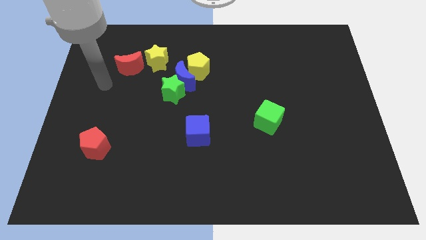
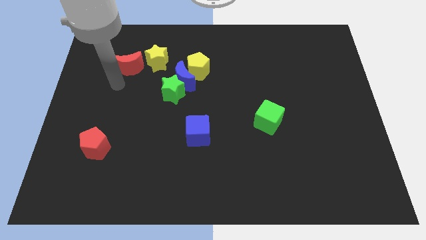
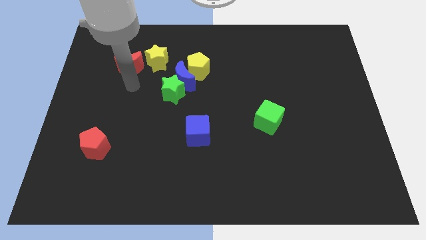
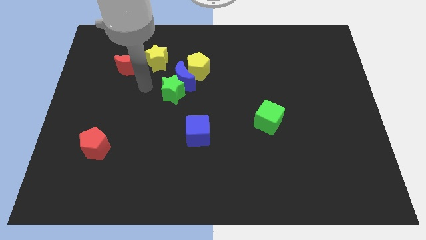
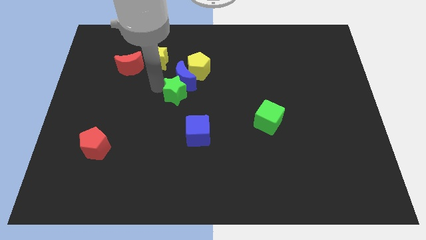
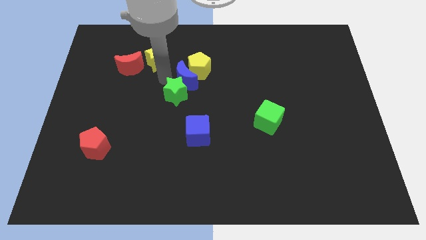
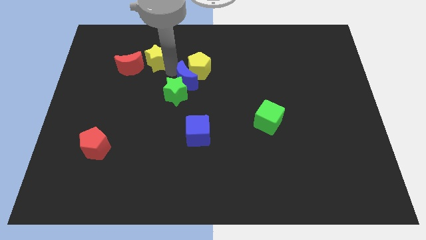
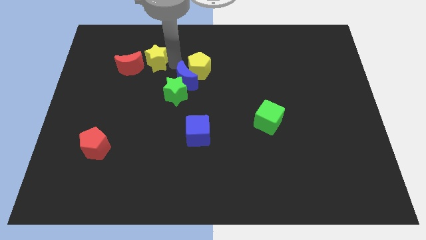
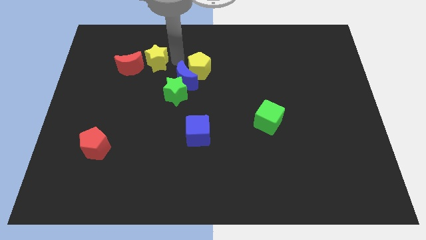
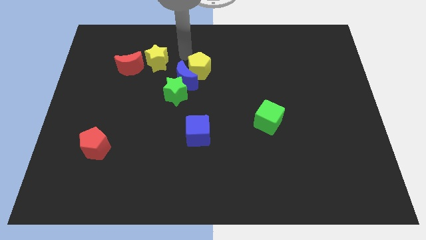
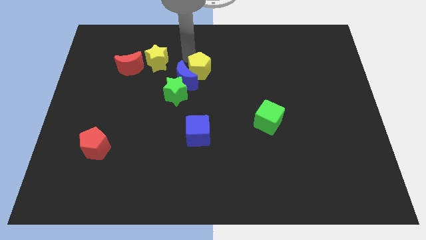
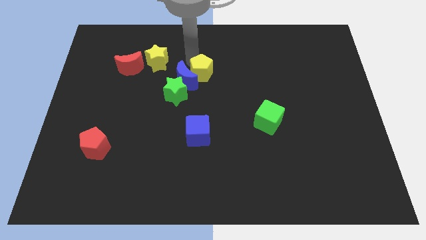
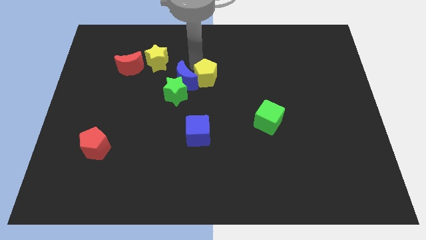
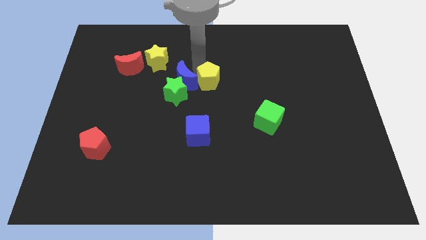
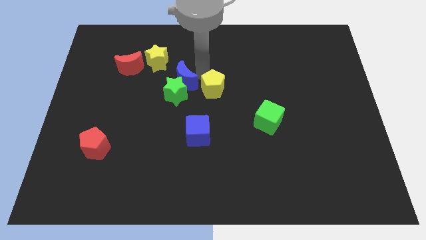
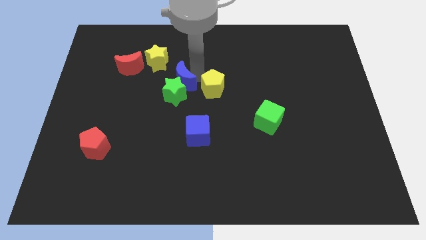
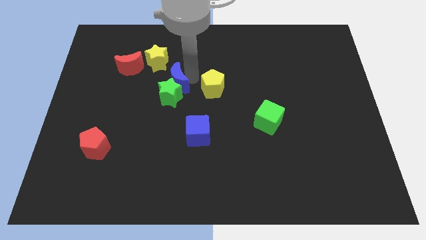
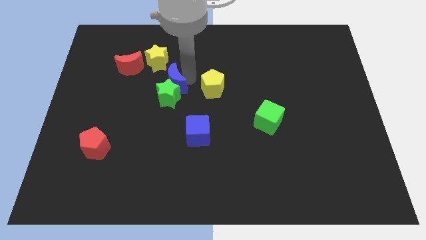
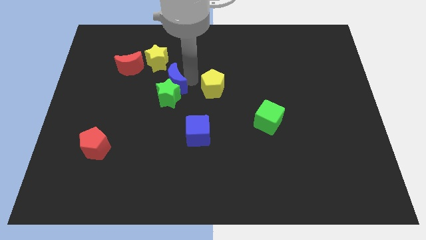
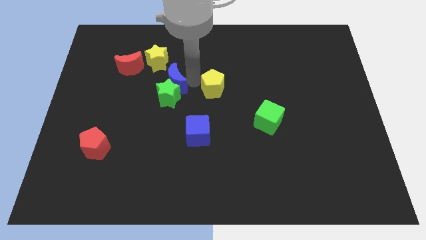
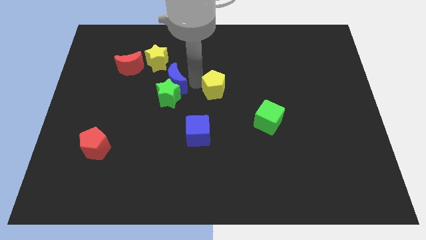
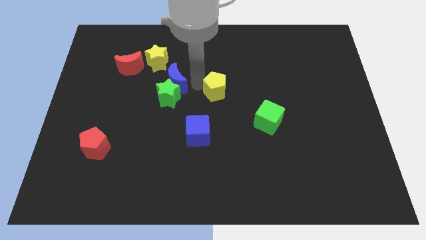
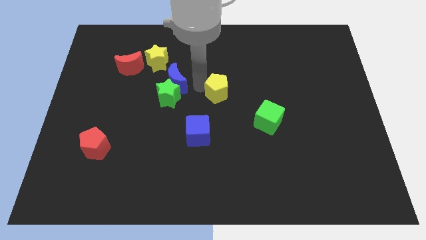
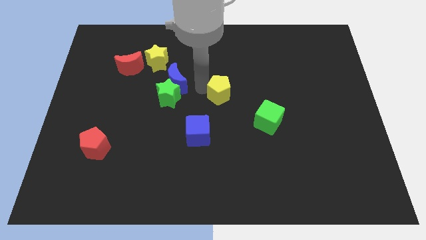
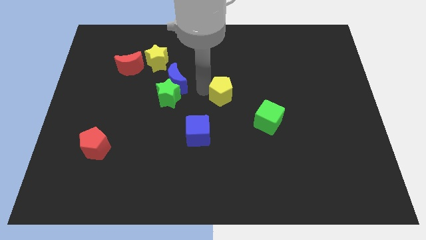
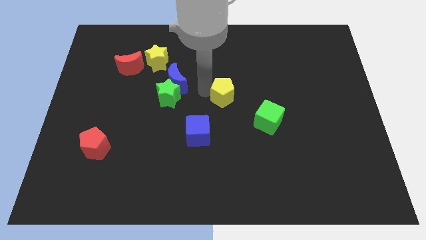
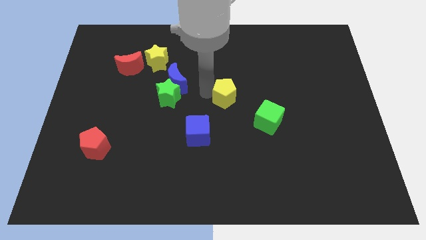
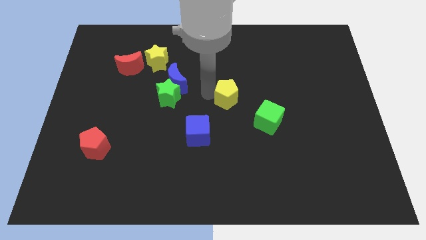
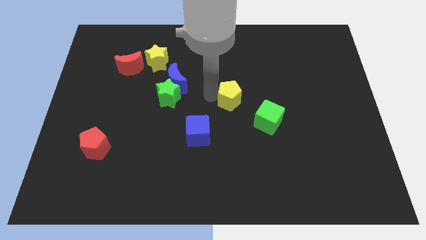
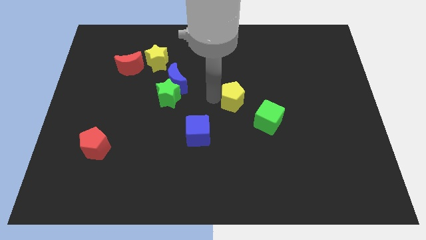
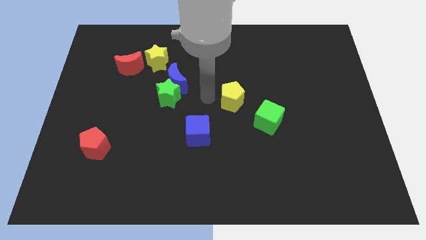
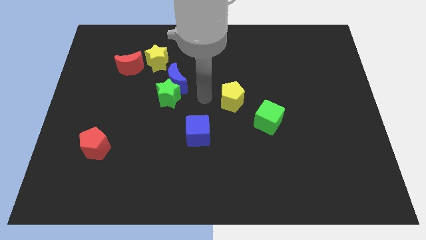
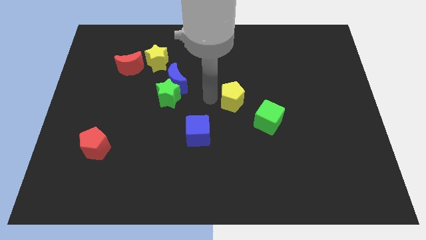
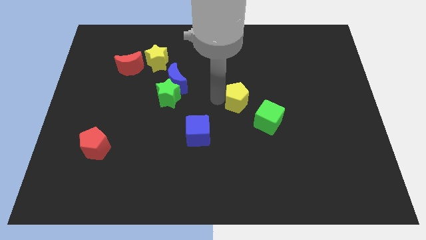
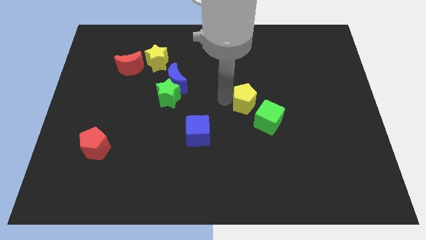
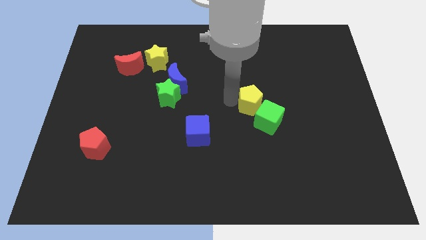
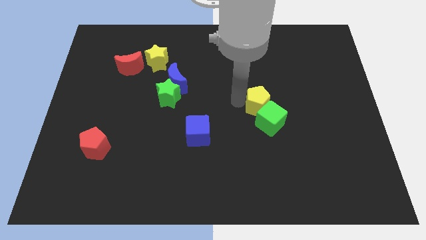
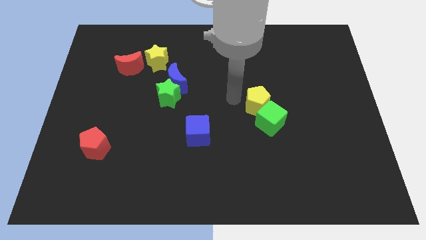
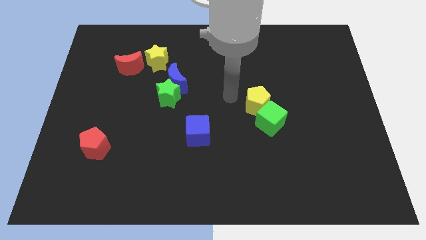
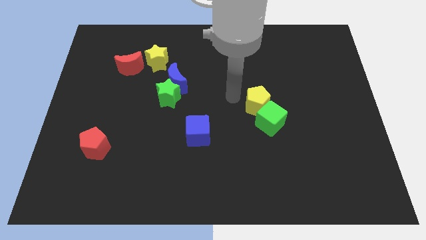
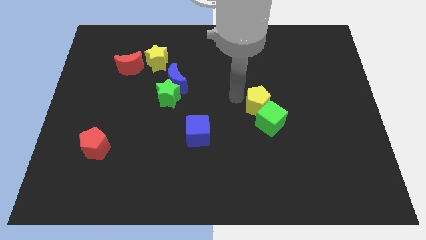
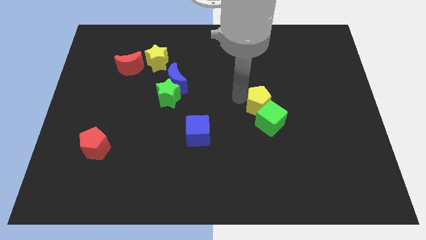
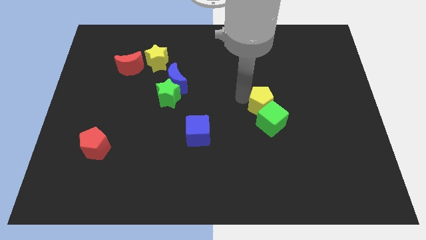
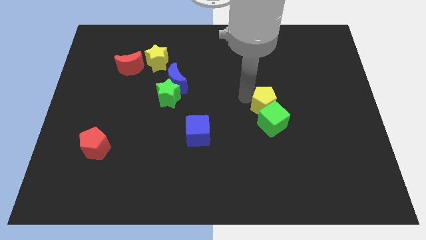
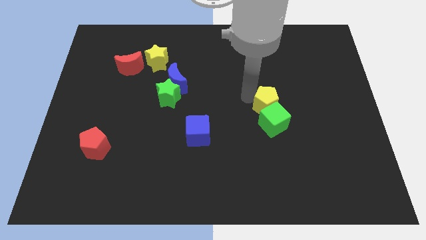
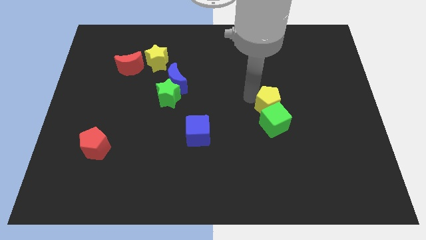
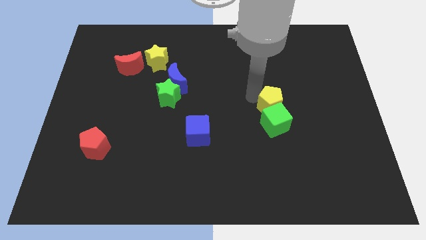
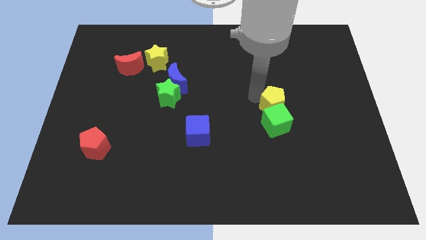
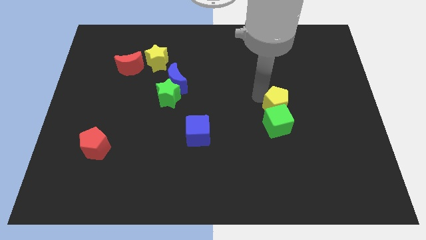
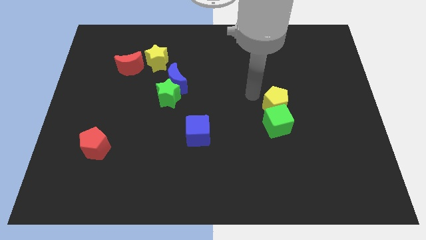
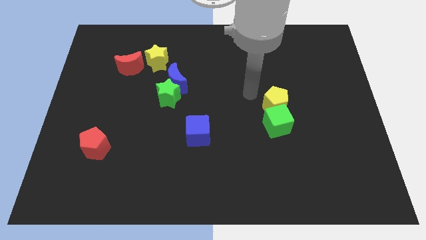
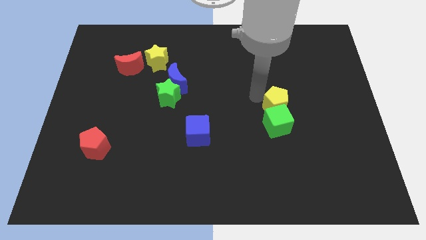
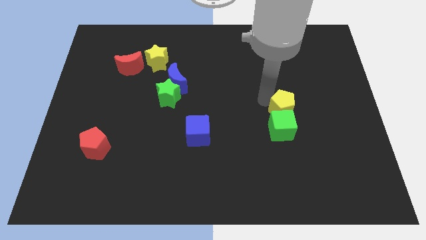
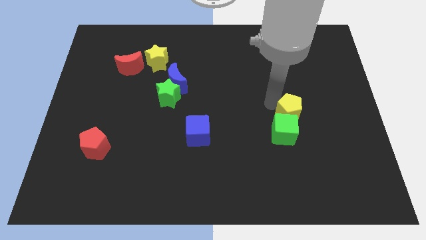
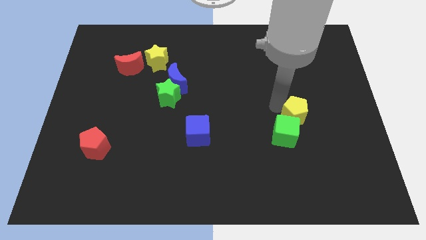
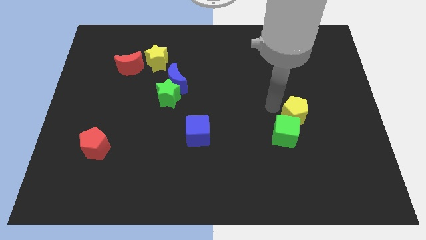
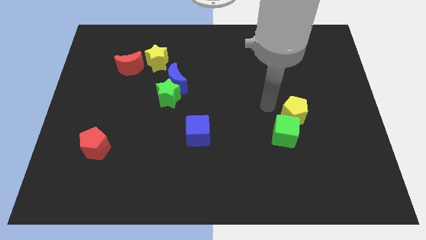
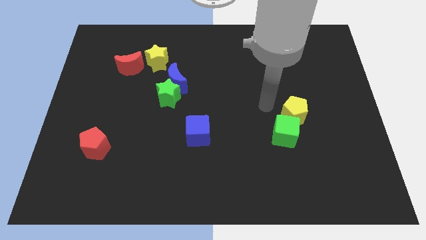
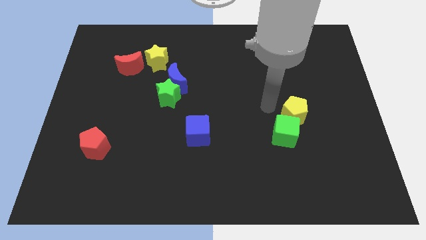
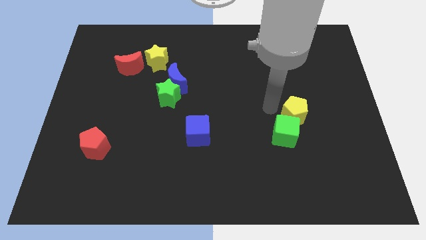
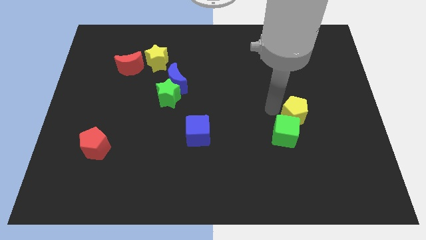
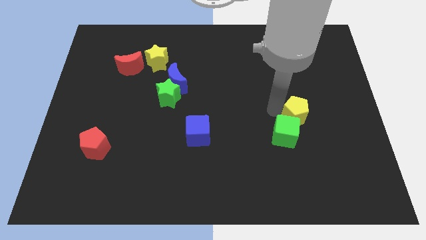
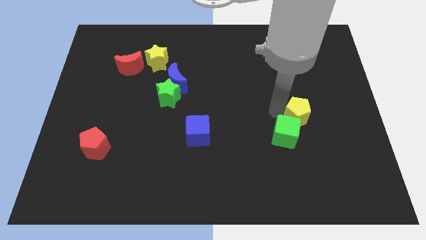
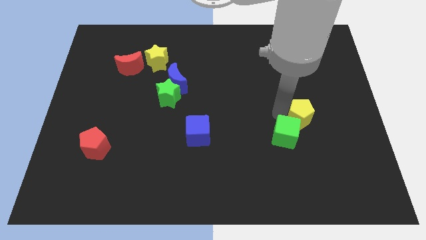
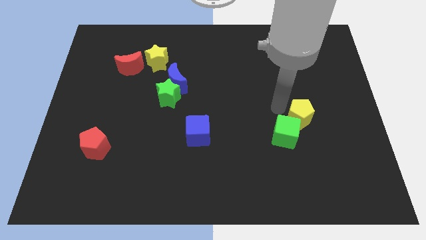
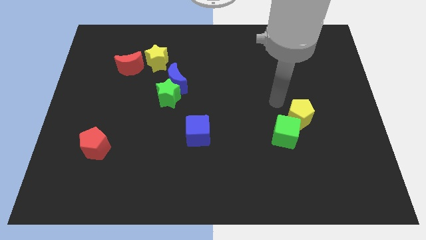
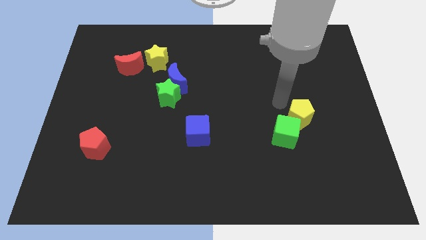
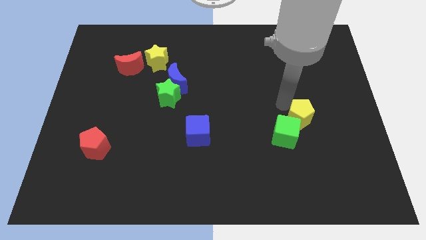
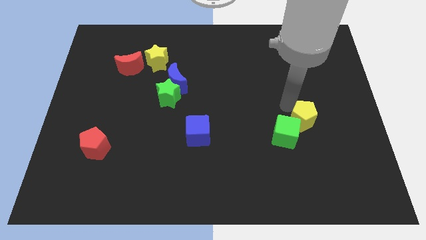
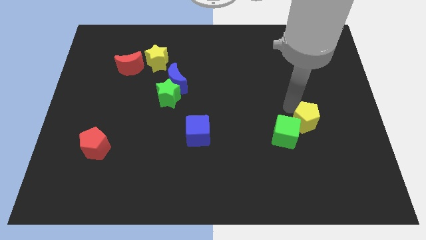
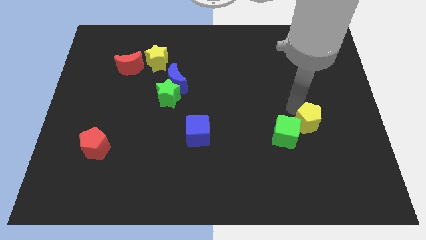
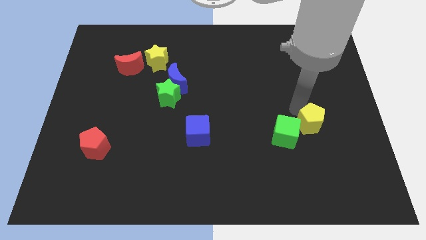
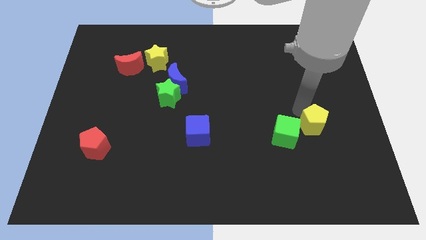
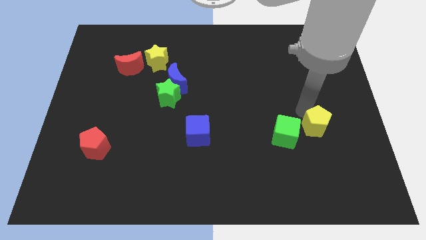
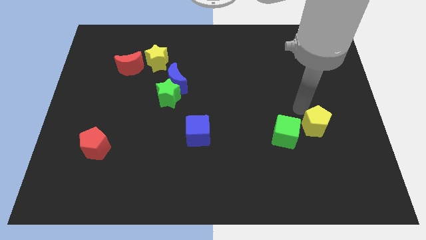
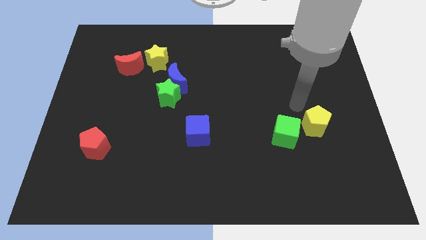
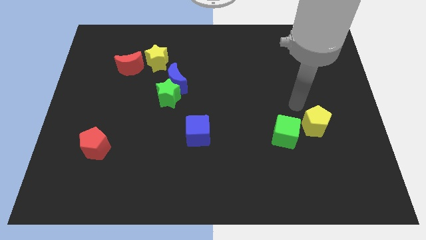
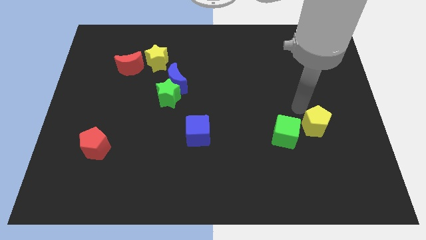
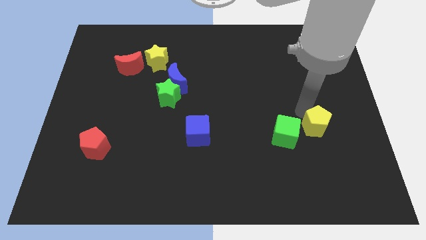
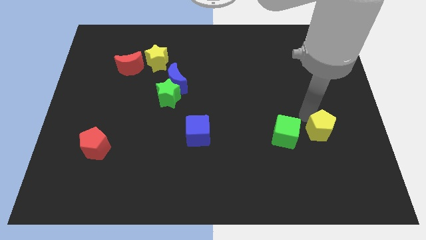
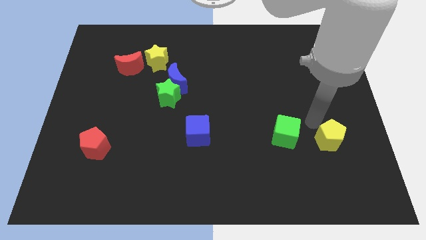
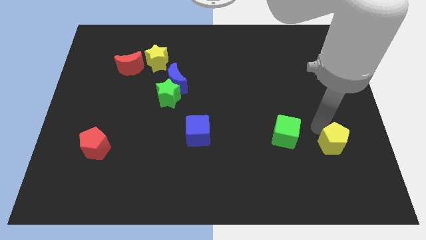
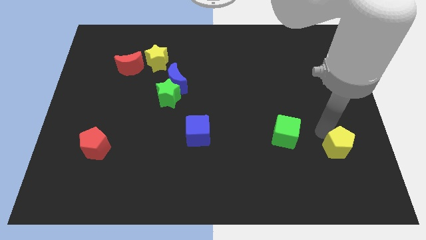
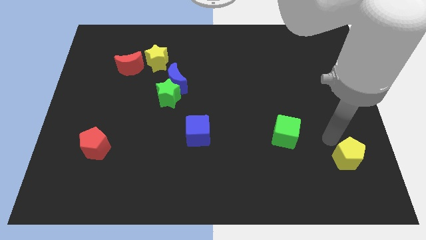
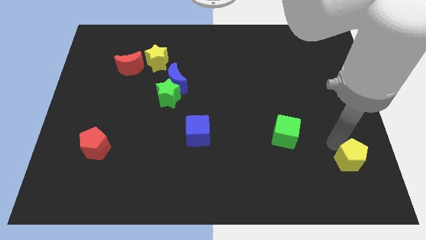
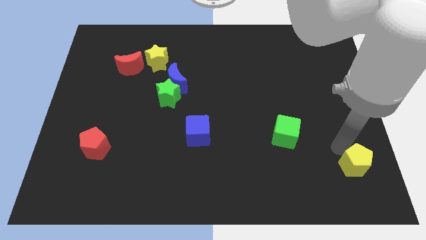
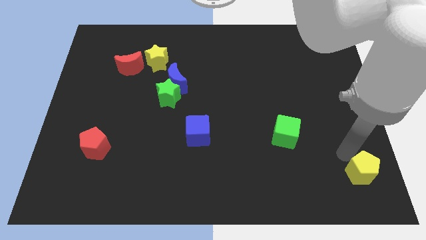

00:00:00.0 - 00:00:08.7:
slide the yellow pentagon to the bottom right of the board
